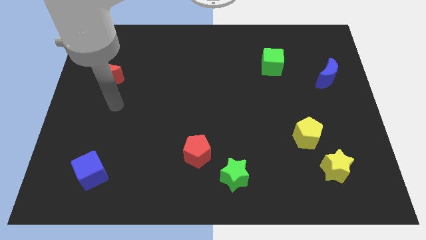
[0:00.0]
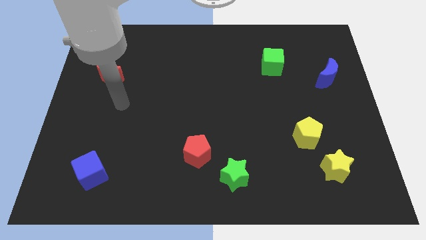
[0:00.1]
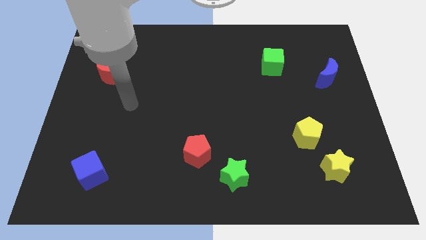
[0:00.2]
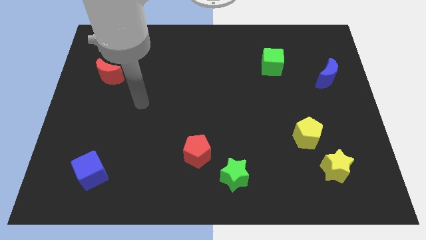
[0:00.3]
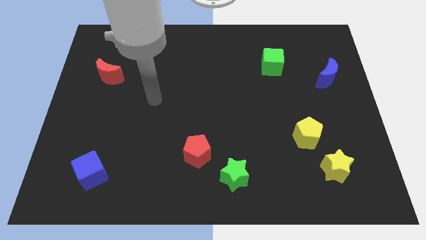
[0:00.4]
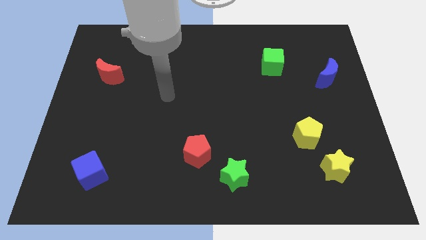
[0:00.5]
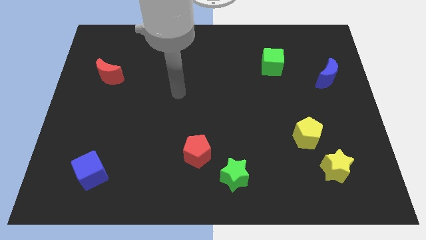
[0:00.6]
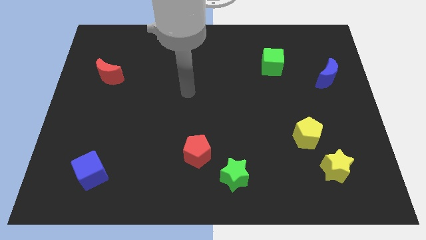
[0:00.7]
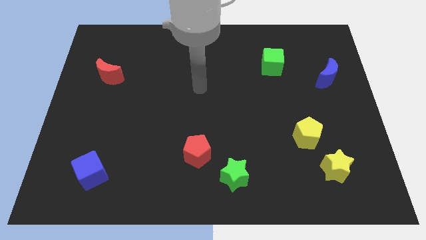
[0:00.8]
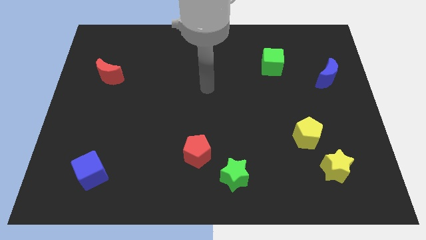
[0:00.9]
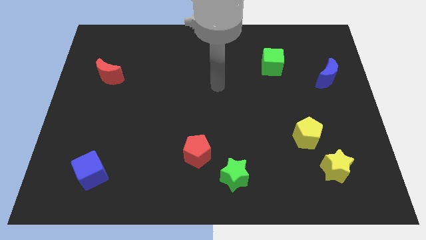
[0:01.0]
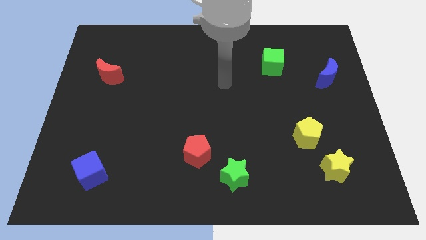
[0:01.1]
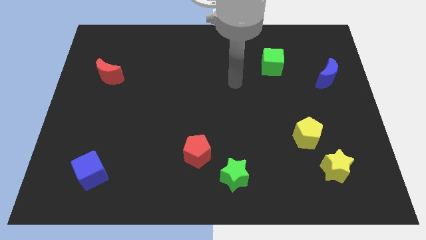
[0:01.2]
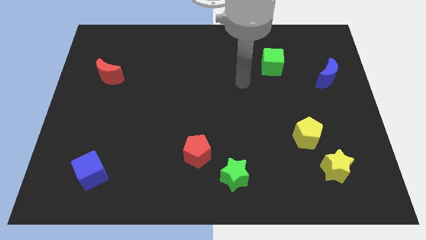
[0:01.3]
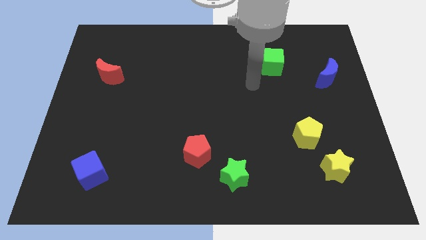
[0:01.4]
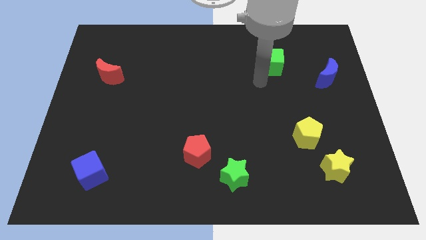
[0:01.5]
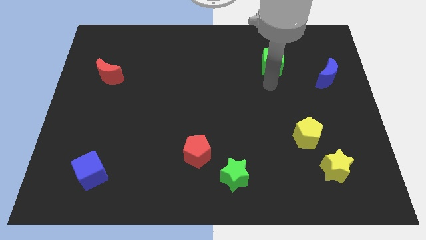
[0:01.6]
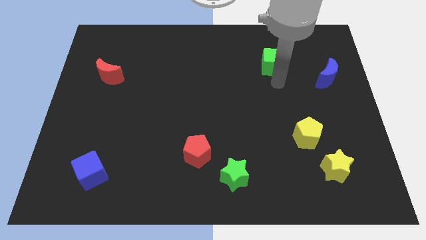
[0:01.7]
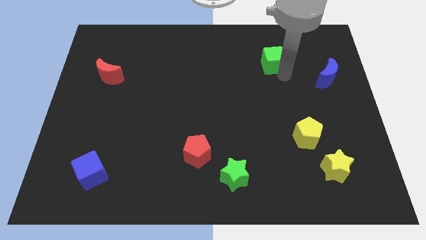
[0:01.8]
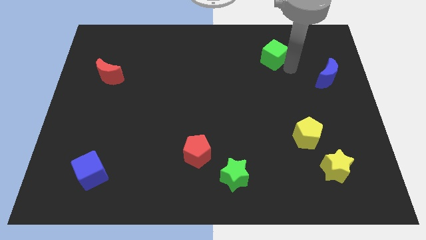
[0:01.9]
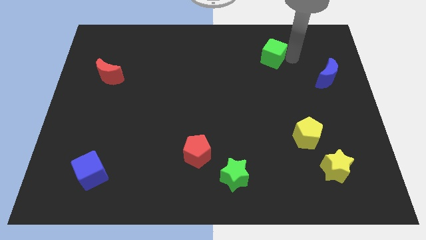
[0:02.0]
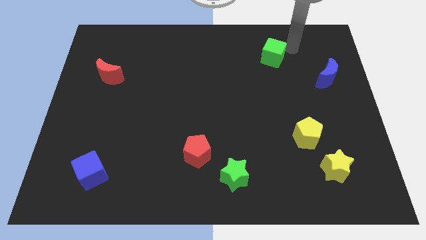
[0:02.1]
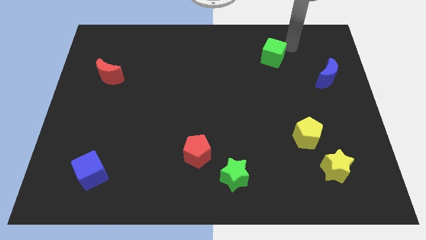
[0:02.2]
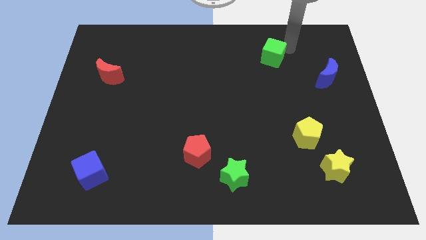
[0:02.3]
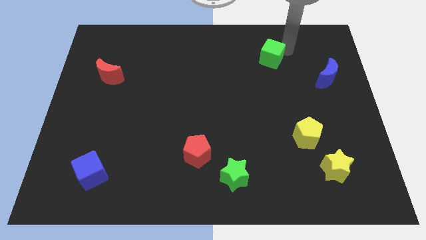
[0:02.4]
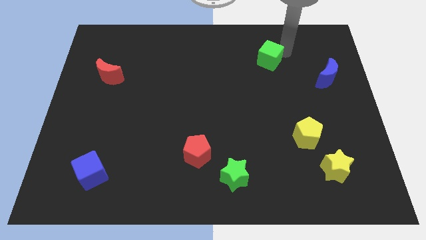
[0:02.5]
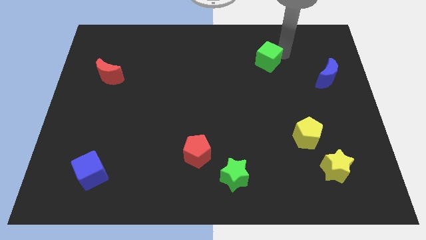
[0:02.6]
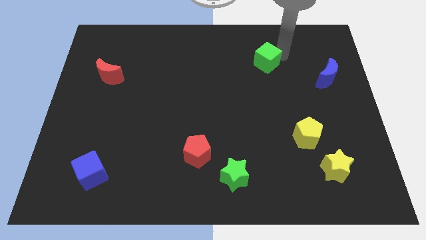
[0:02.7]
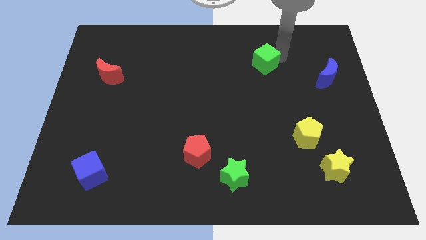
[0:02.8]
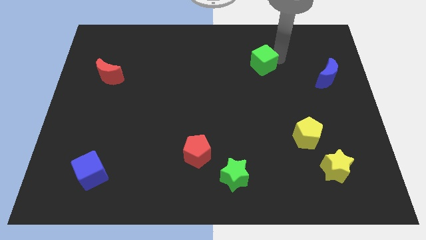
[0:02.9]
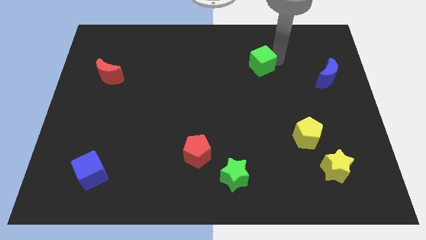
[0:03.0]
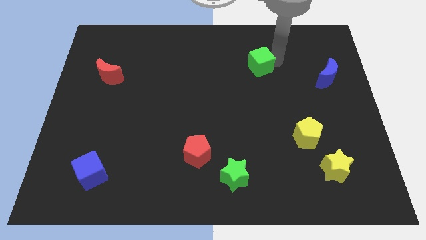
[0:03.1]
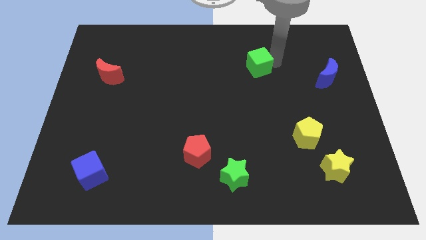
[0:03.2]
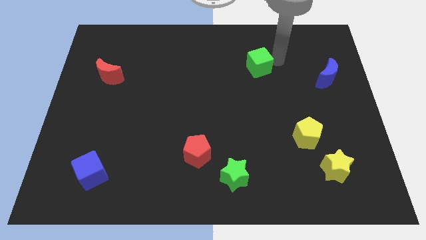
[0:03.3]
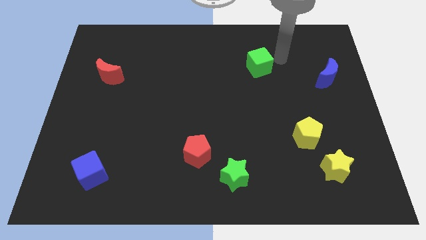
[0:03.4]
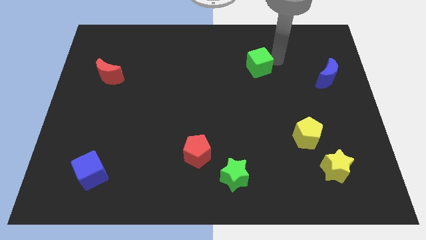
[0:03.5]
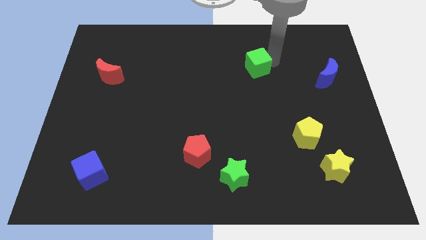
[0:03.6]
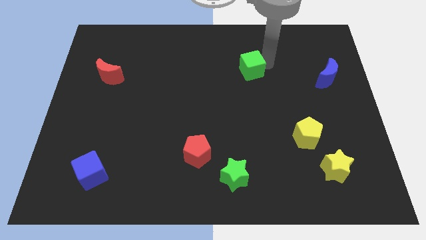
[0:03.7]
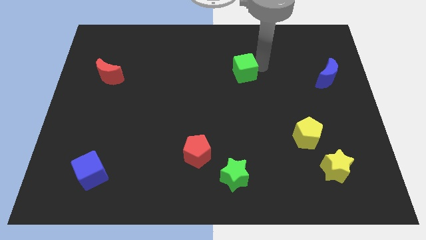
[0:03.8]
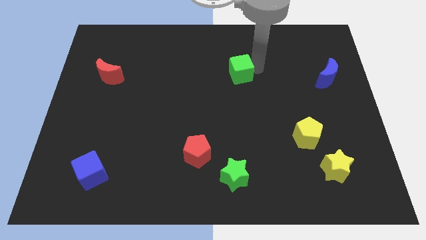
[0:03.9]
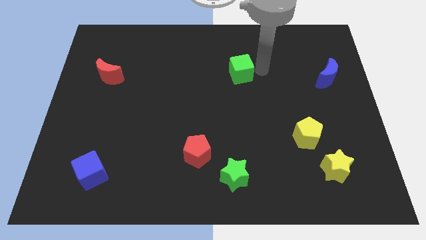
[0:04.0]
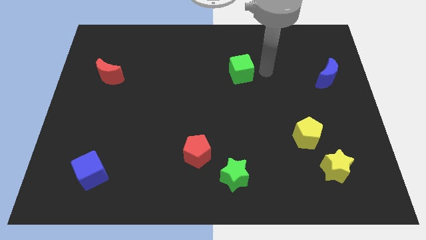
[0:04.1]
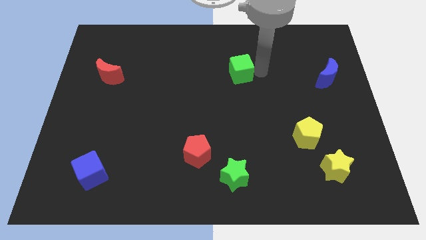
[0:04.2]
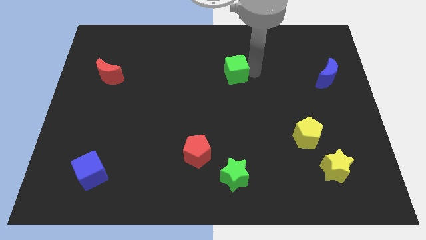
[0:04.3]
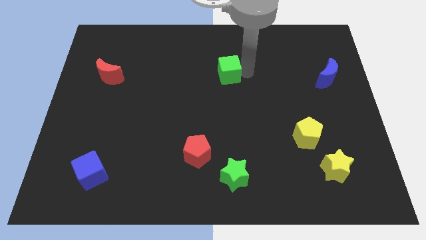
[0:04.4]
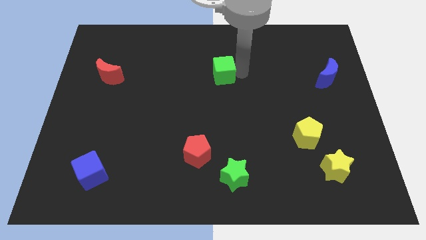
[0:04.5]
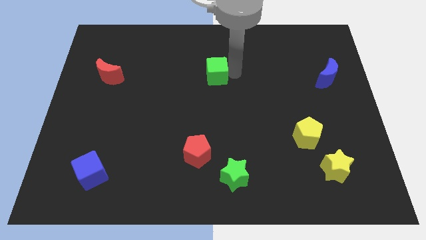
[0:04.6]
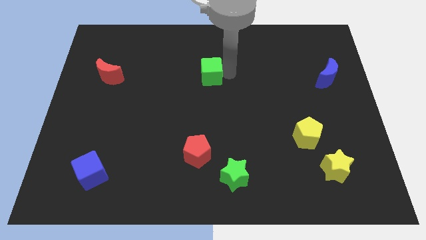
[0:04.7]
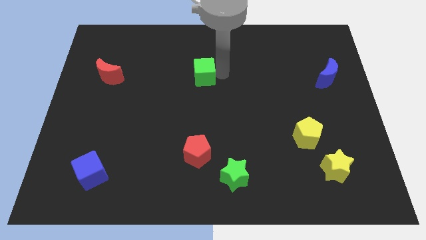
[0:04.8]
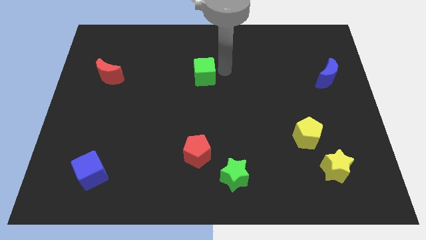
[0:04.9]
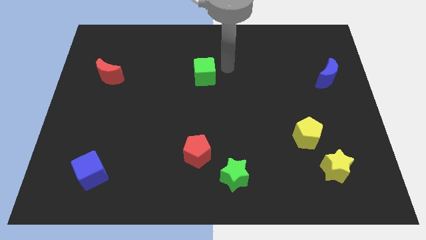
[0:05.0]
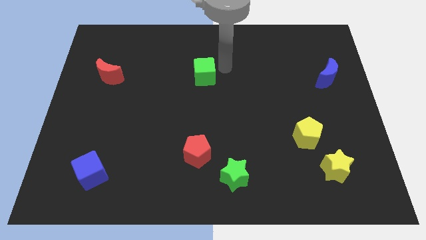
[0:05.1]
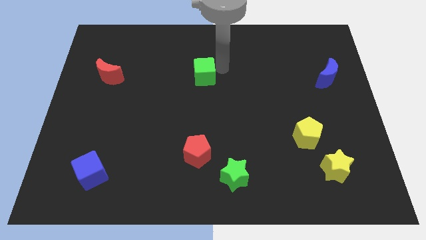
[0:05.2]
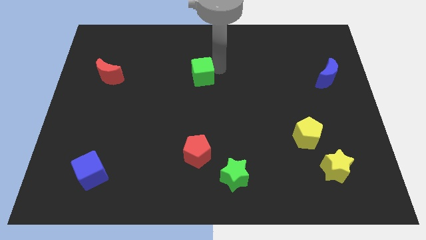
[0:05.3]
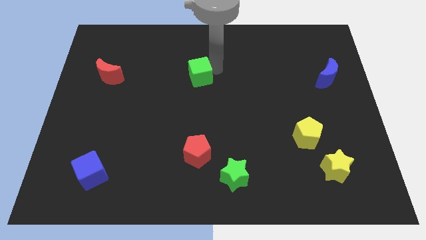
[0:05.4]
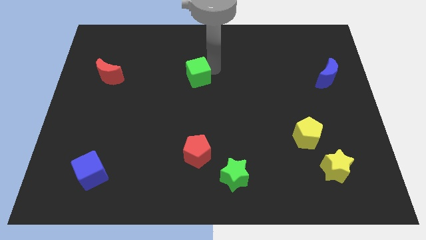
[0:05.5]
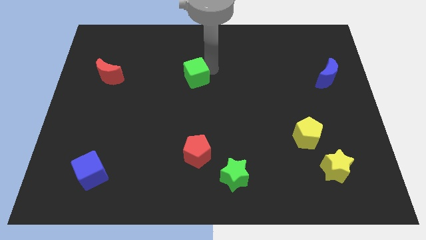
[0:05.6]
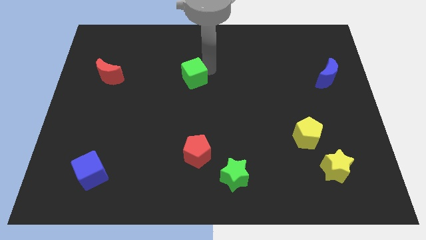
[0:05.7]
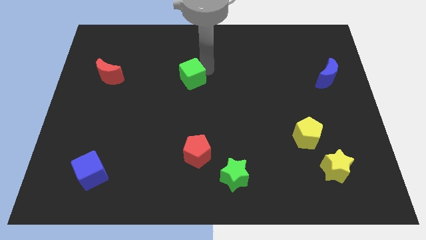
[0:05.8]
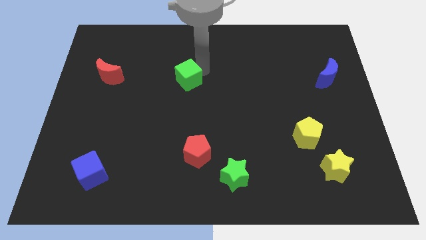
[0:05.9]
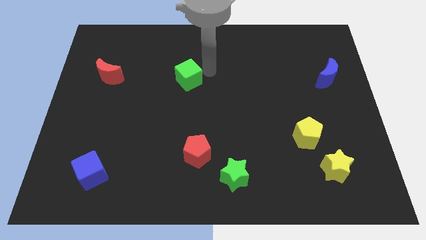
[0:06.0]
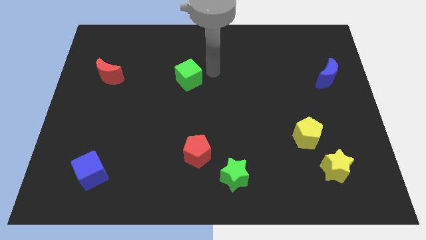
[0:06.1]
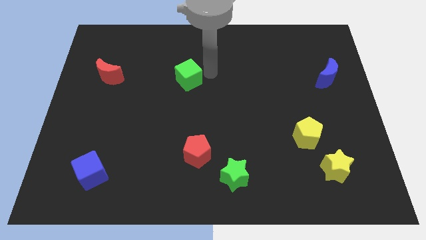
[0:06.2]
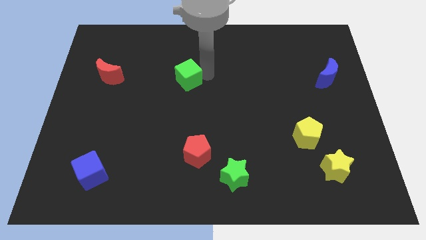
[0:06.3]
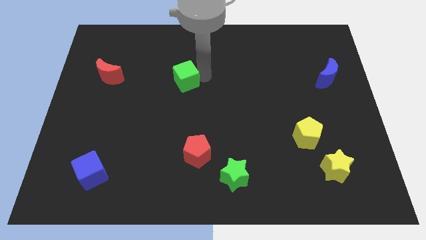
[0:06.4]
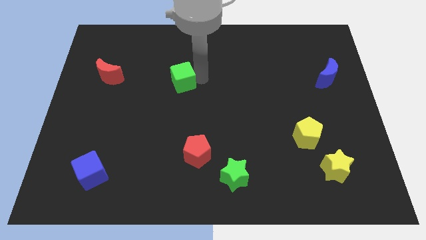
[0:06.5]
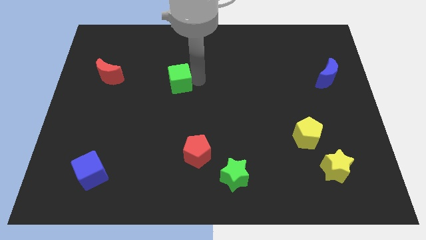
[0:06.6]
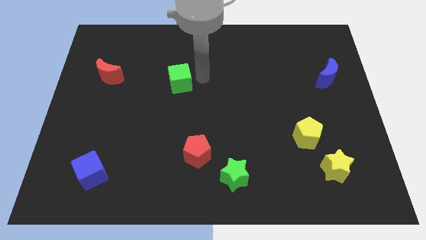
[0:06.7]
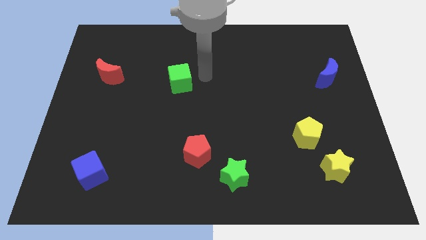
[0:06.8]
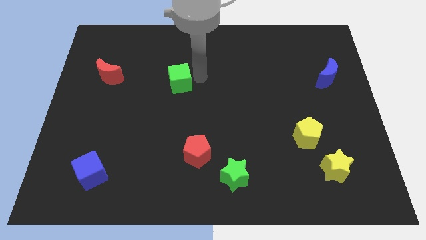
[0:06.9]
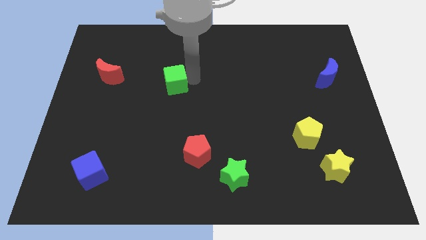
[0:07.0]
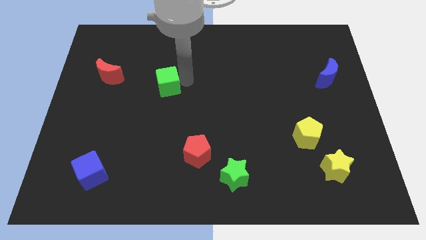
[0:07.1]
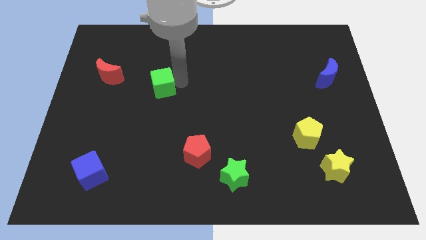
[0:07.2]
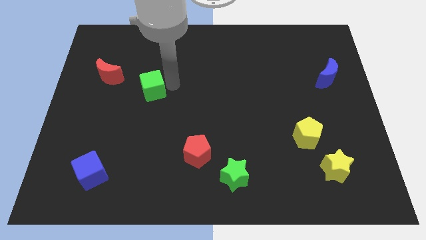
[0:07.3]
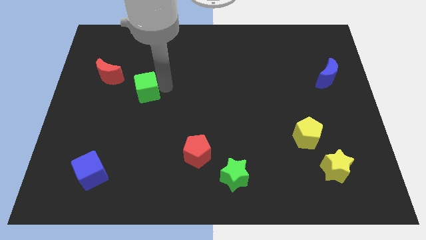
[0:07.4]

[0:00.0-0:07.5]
slide the green cube diagonally down and to the right of the red moon

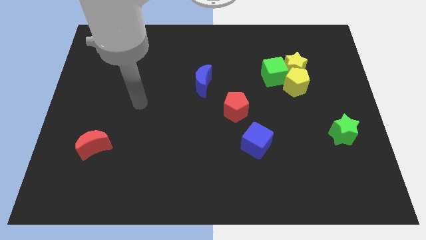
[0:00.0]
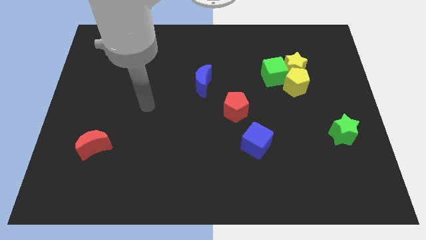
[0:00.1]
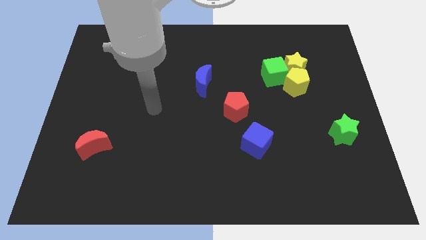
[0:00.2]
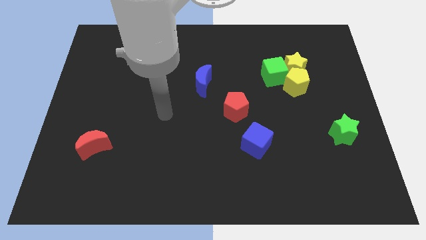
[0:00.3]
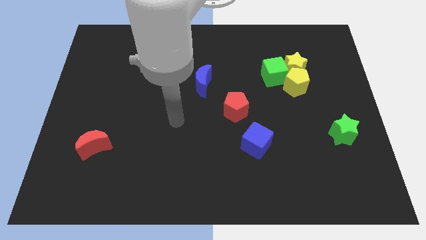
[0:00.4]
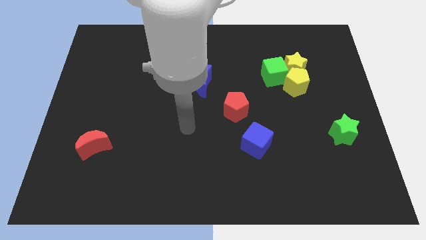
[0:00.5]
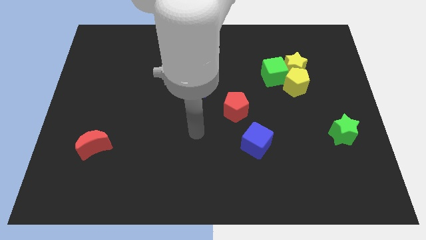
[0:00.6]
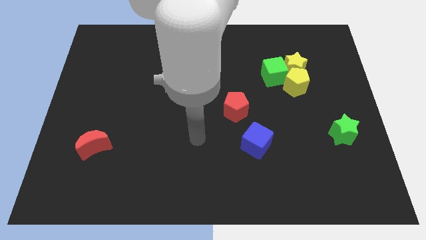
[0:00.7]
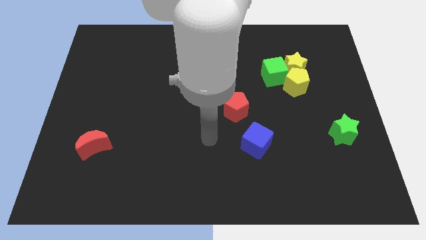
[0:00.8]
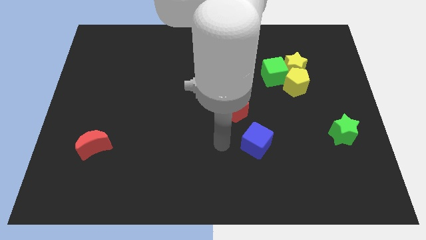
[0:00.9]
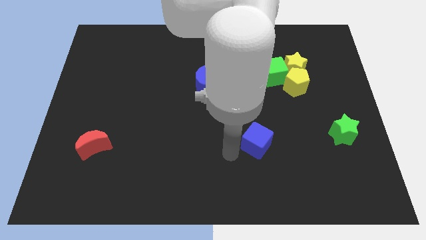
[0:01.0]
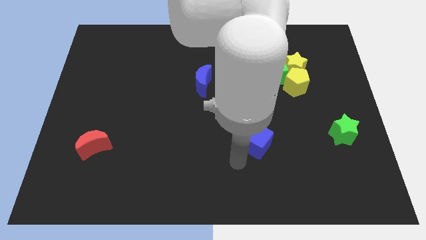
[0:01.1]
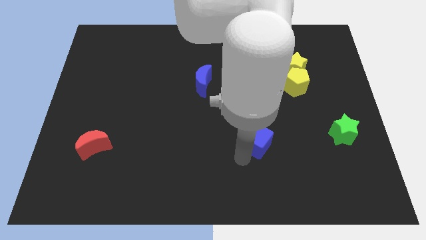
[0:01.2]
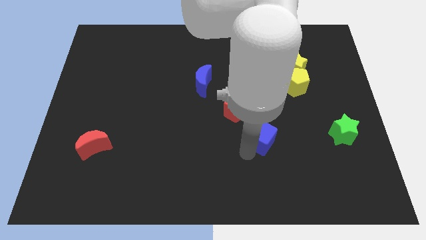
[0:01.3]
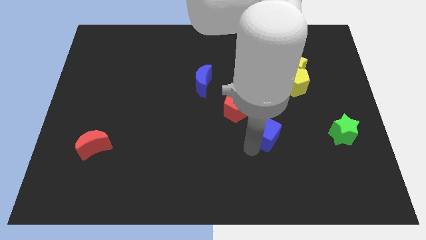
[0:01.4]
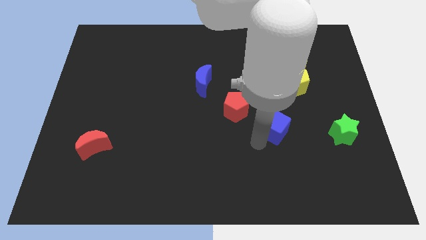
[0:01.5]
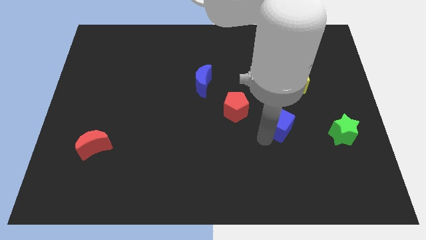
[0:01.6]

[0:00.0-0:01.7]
move the blue cube to the right side of the red pentagon
